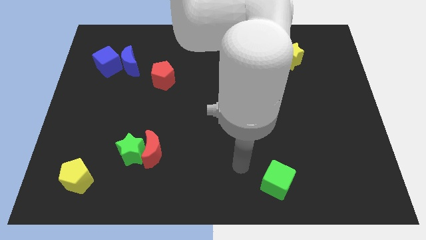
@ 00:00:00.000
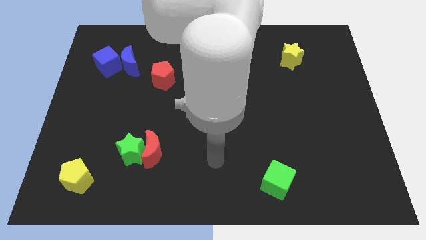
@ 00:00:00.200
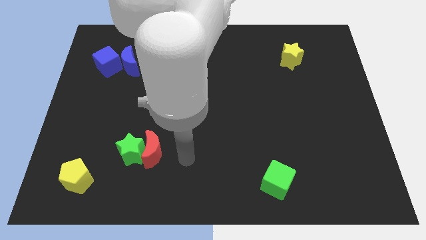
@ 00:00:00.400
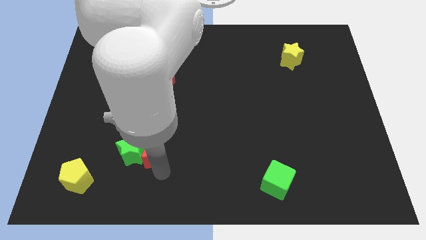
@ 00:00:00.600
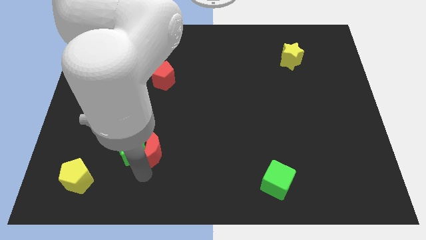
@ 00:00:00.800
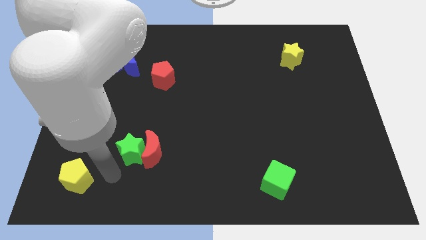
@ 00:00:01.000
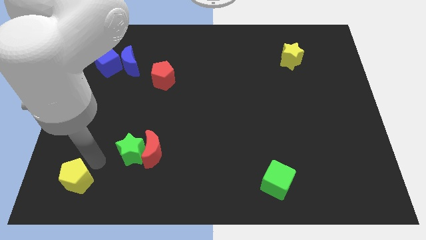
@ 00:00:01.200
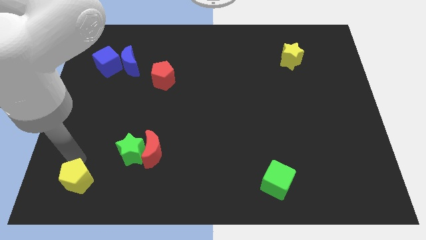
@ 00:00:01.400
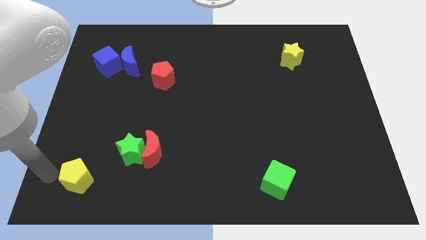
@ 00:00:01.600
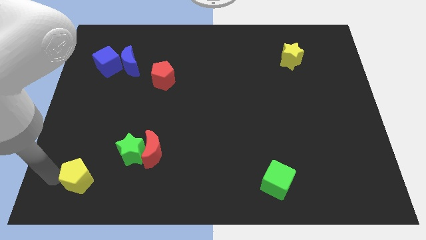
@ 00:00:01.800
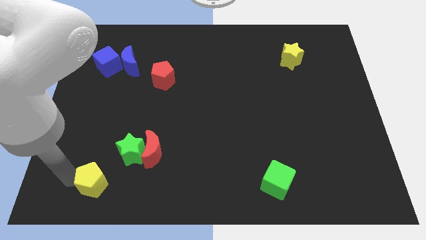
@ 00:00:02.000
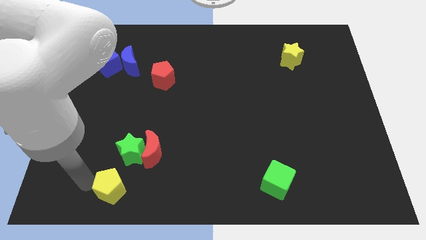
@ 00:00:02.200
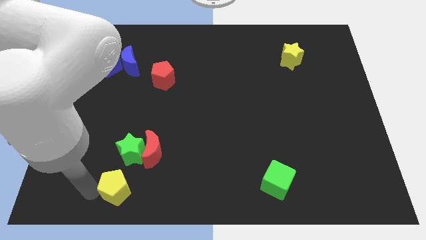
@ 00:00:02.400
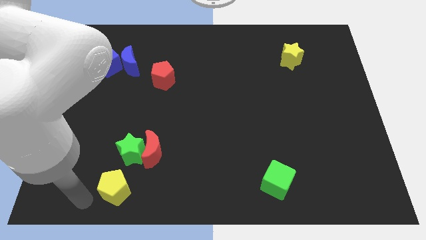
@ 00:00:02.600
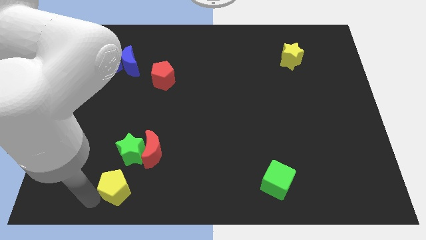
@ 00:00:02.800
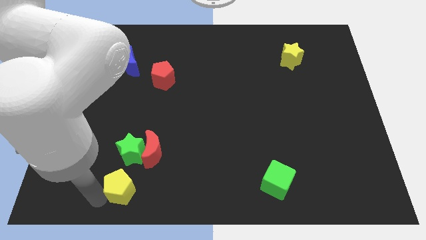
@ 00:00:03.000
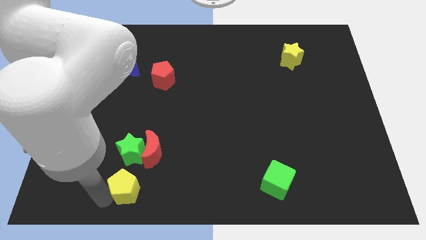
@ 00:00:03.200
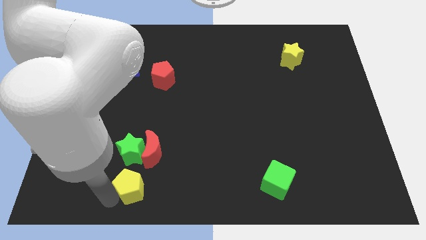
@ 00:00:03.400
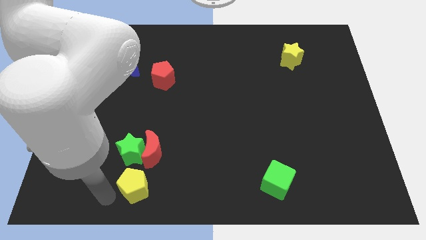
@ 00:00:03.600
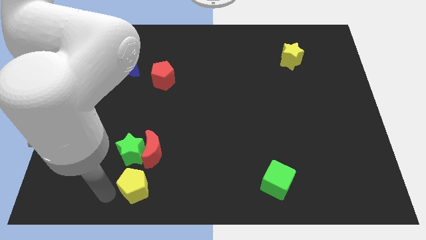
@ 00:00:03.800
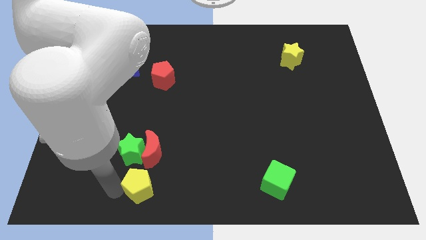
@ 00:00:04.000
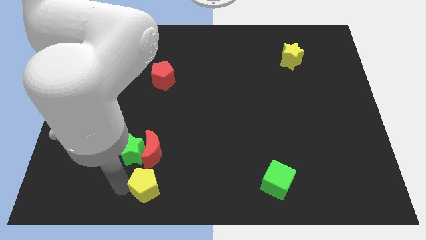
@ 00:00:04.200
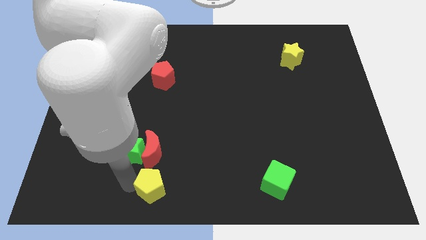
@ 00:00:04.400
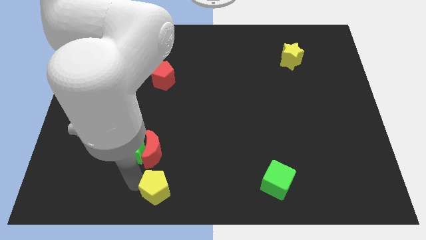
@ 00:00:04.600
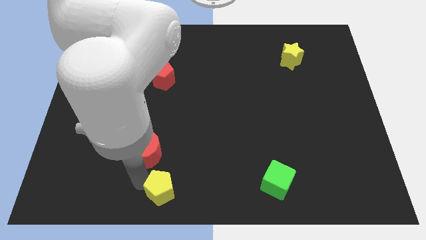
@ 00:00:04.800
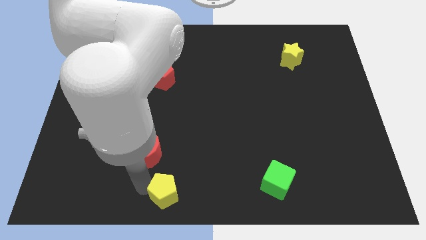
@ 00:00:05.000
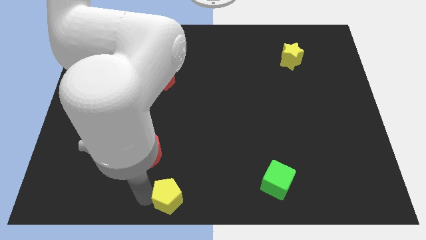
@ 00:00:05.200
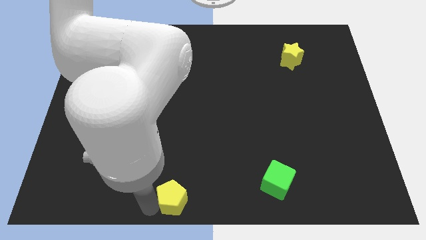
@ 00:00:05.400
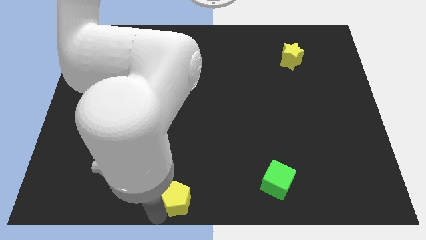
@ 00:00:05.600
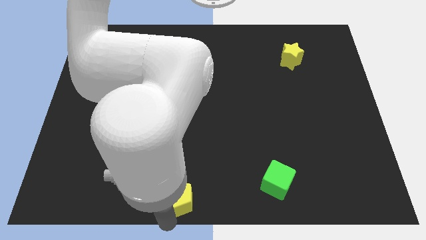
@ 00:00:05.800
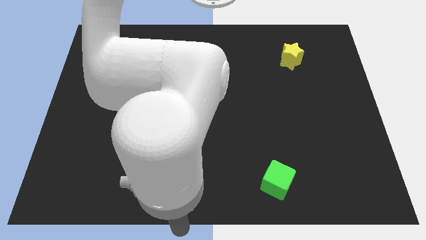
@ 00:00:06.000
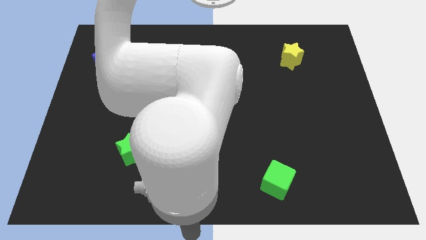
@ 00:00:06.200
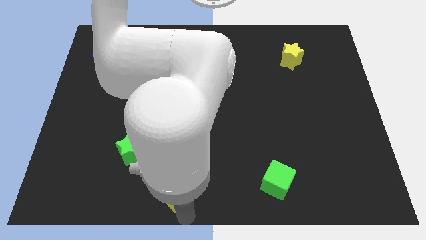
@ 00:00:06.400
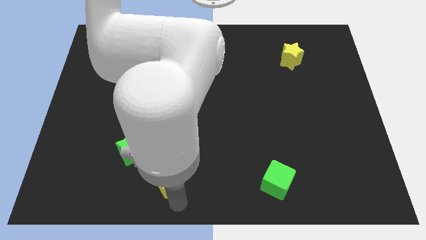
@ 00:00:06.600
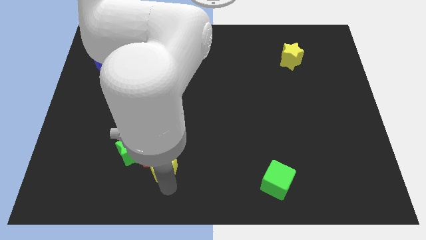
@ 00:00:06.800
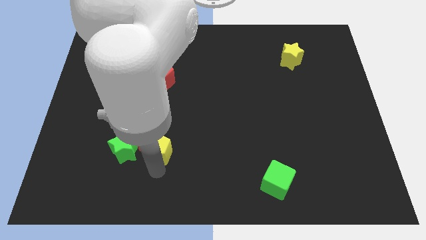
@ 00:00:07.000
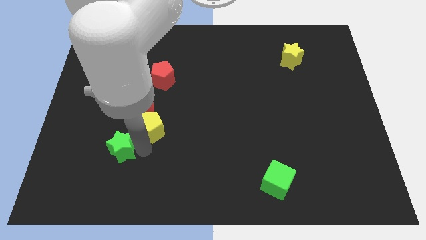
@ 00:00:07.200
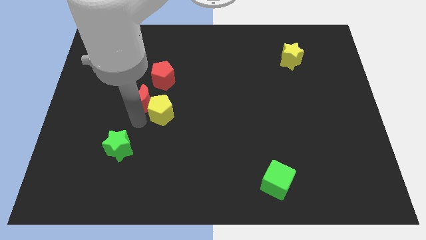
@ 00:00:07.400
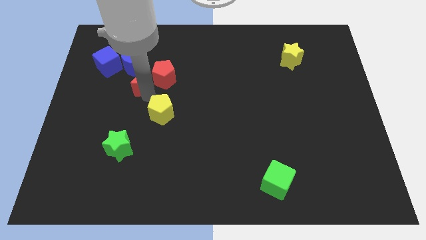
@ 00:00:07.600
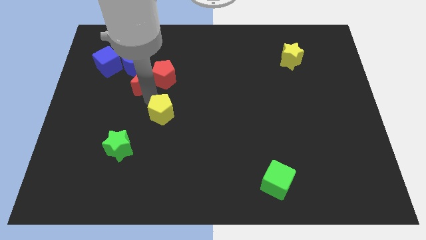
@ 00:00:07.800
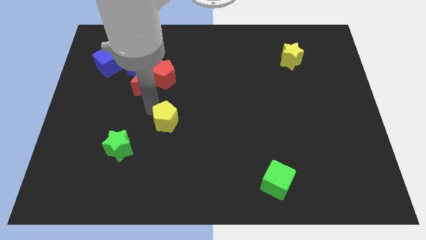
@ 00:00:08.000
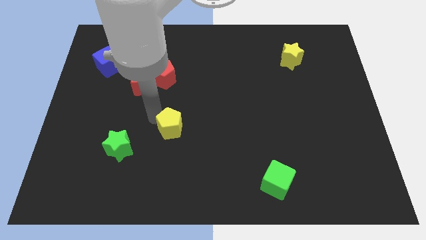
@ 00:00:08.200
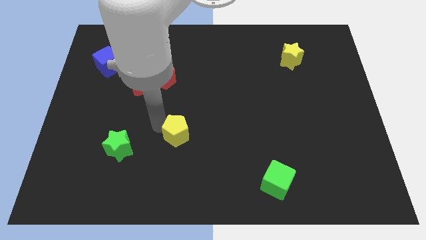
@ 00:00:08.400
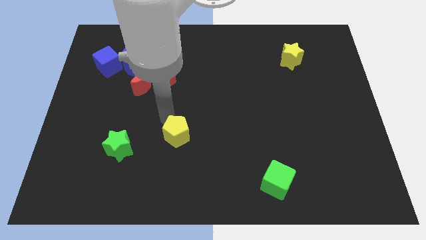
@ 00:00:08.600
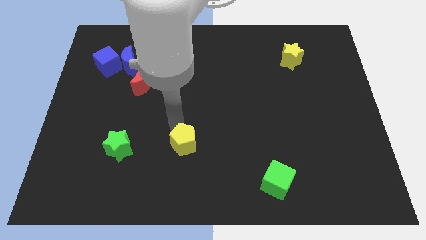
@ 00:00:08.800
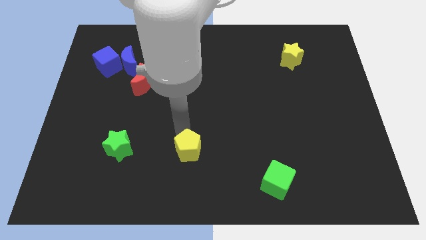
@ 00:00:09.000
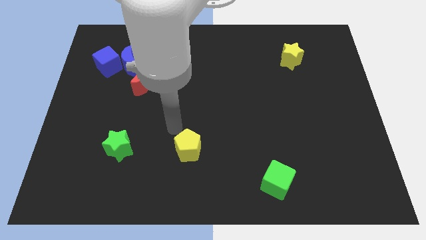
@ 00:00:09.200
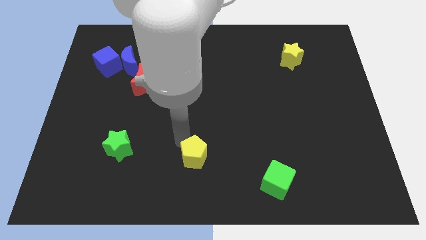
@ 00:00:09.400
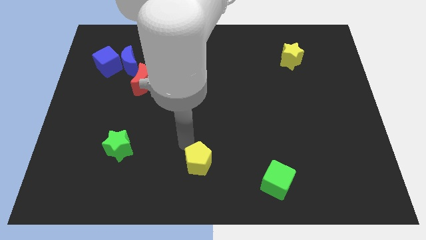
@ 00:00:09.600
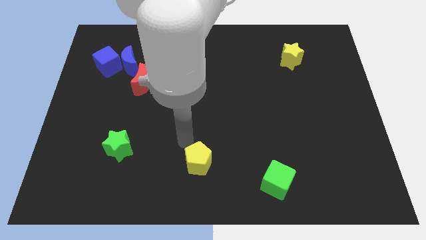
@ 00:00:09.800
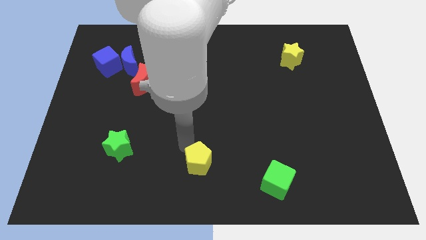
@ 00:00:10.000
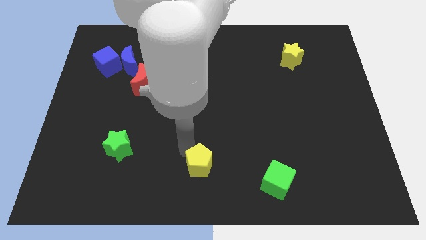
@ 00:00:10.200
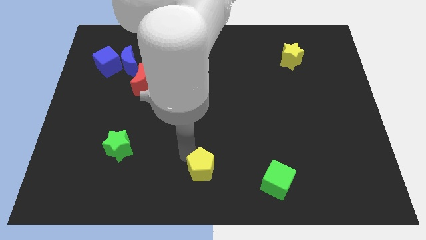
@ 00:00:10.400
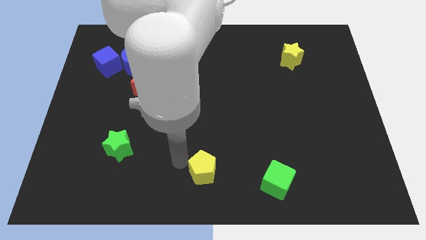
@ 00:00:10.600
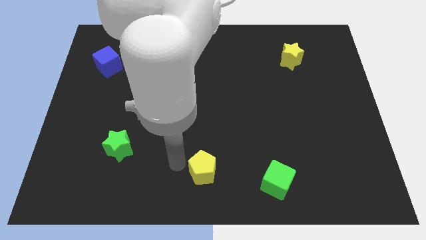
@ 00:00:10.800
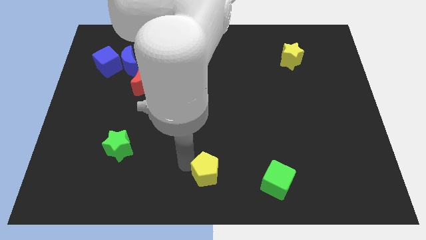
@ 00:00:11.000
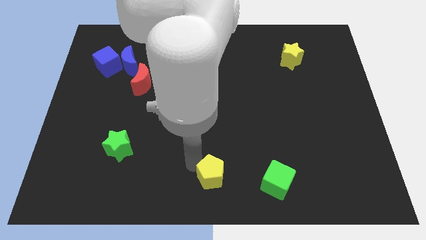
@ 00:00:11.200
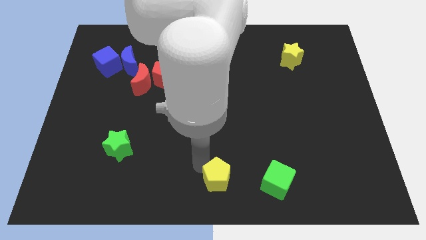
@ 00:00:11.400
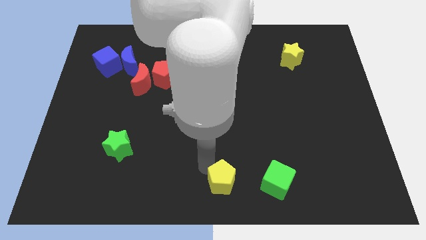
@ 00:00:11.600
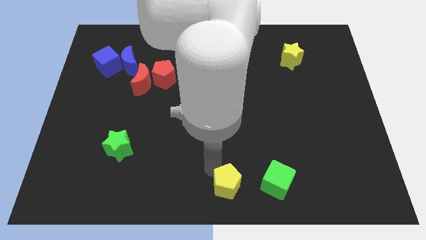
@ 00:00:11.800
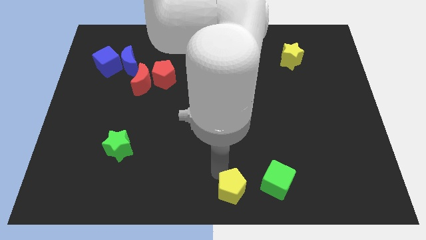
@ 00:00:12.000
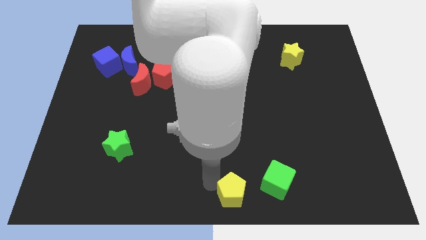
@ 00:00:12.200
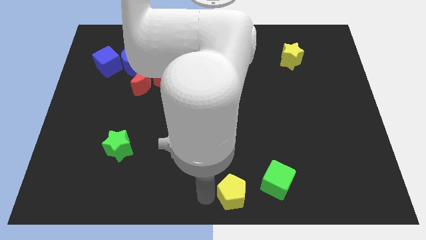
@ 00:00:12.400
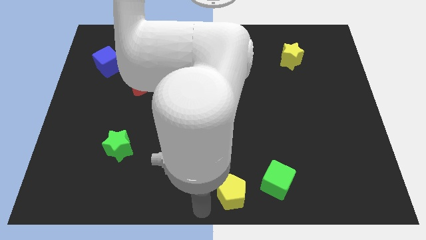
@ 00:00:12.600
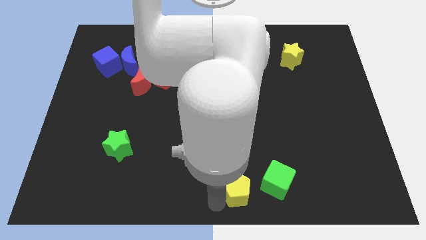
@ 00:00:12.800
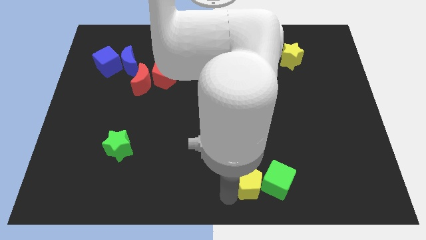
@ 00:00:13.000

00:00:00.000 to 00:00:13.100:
slide the yellow pentagon to the green cube

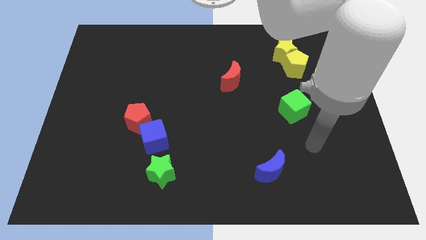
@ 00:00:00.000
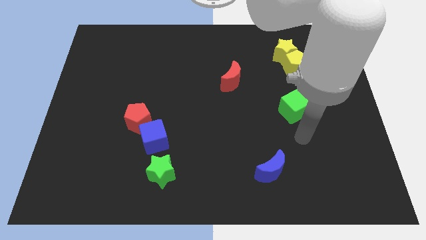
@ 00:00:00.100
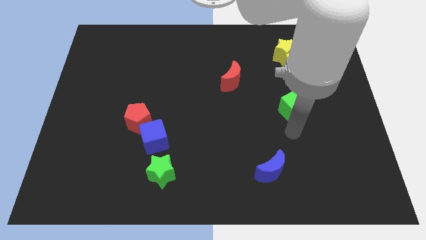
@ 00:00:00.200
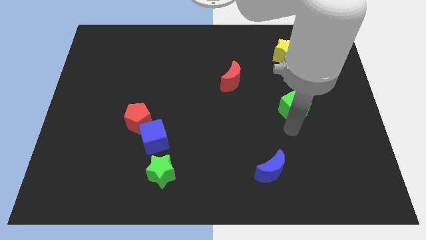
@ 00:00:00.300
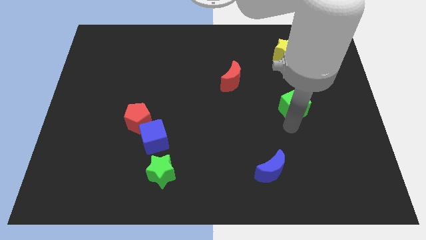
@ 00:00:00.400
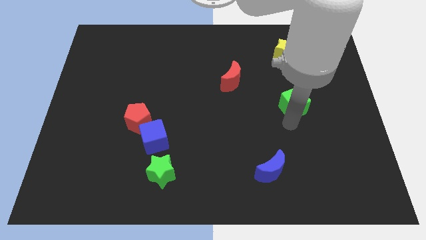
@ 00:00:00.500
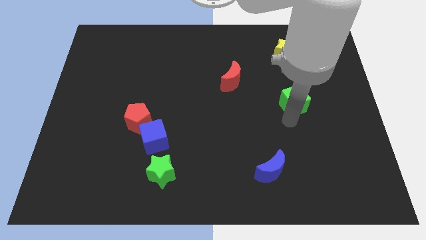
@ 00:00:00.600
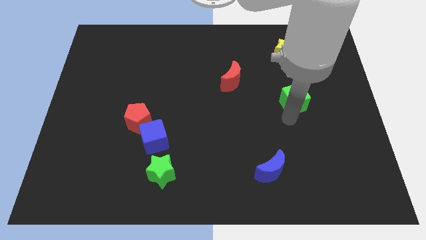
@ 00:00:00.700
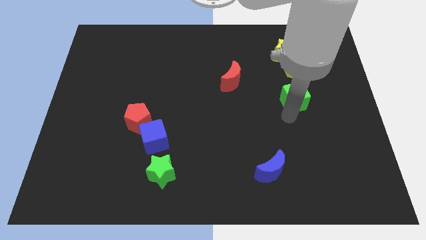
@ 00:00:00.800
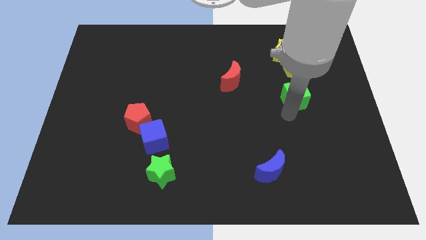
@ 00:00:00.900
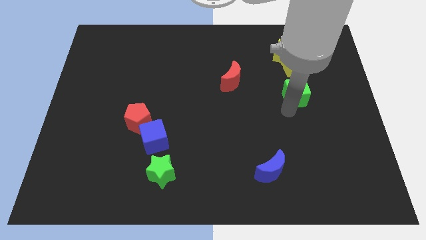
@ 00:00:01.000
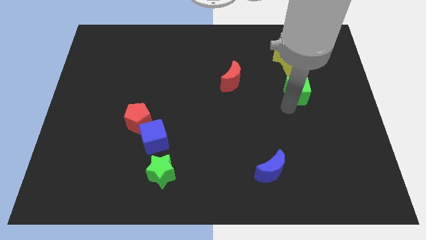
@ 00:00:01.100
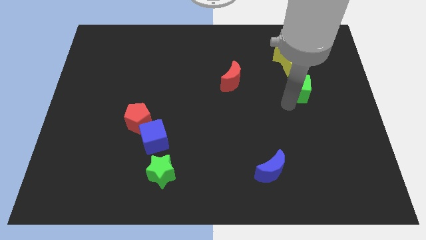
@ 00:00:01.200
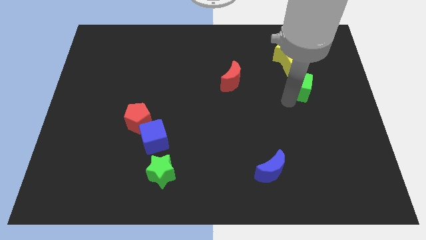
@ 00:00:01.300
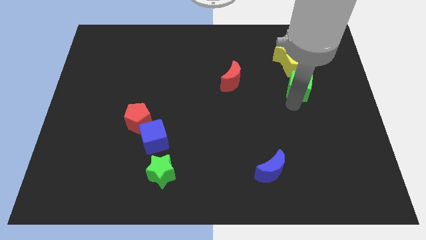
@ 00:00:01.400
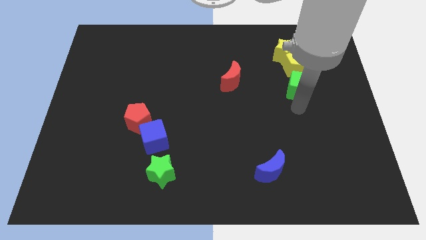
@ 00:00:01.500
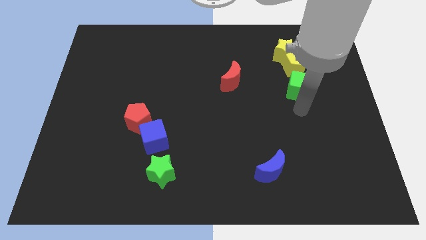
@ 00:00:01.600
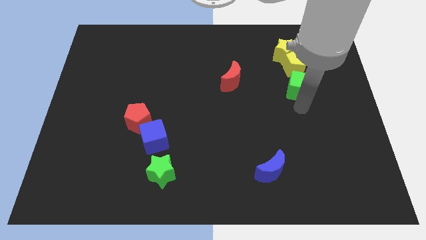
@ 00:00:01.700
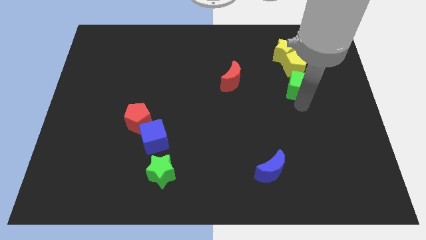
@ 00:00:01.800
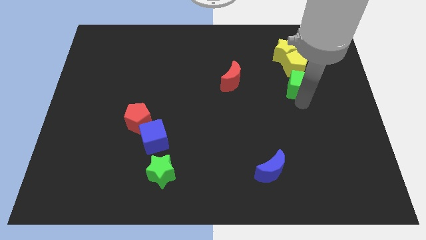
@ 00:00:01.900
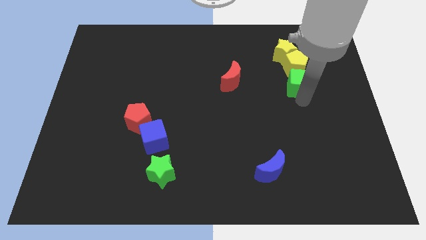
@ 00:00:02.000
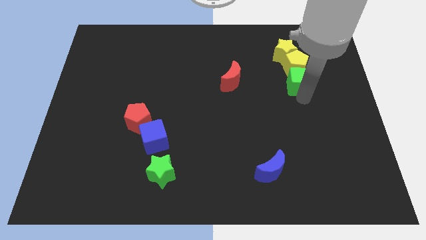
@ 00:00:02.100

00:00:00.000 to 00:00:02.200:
put the green cube to the yellow pentagon
